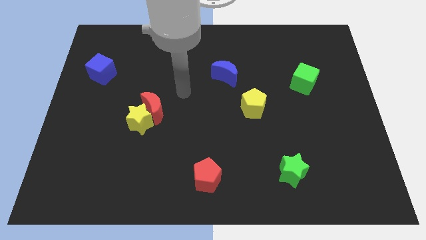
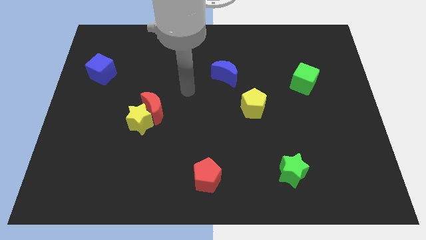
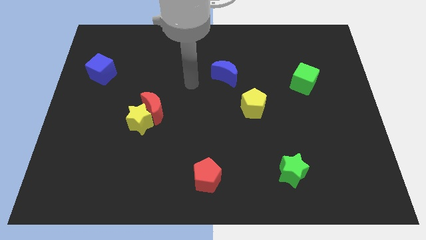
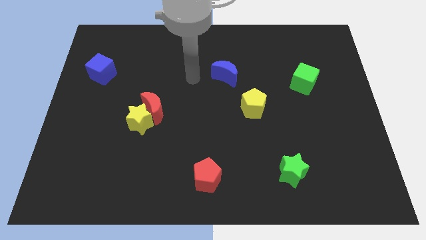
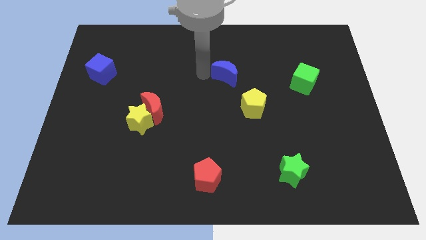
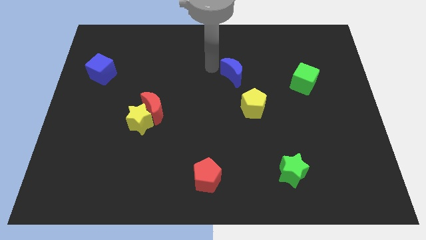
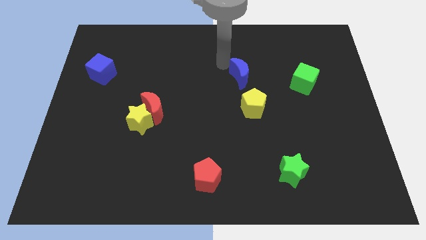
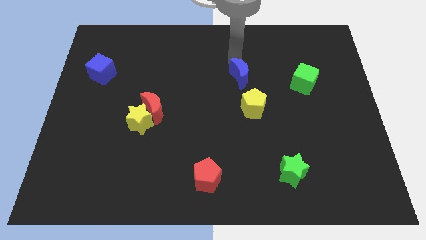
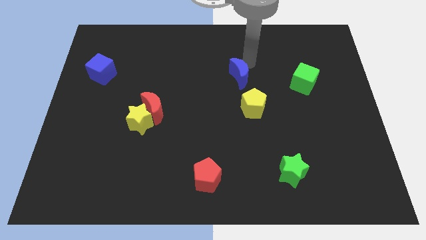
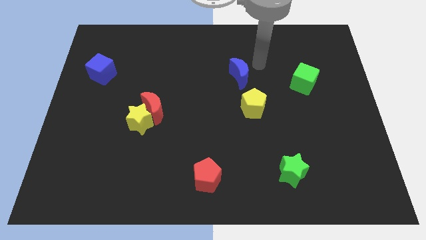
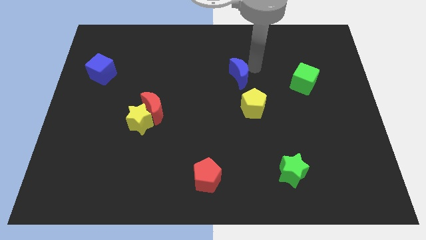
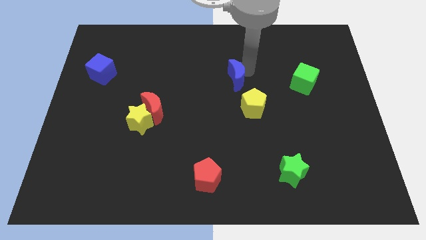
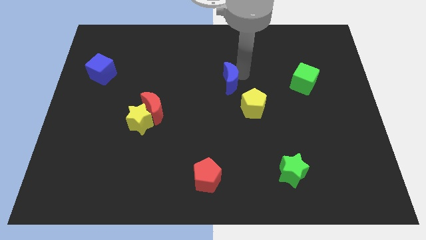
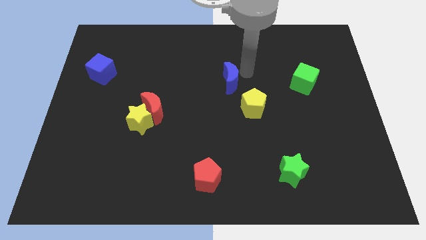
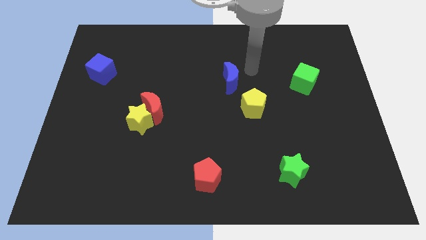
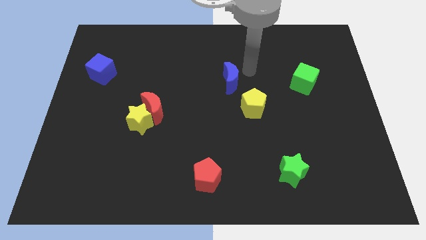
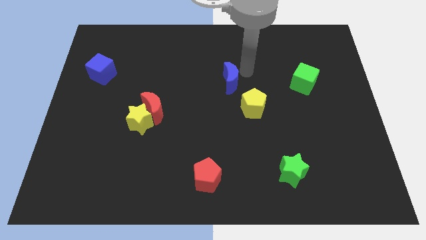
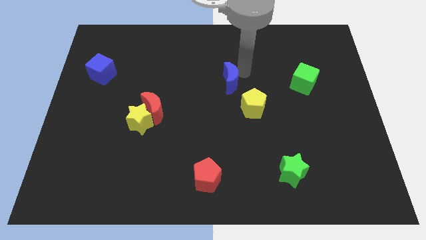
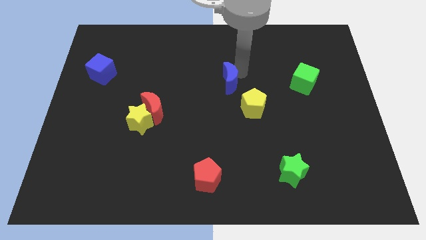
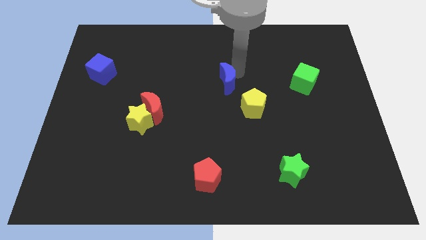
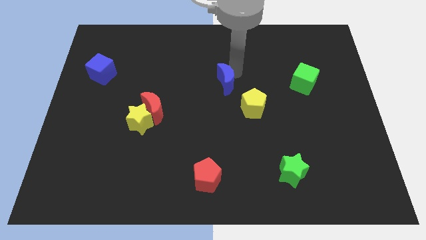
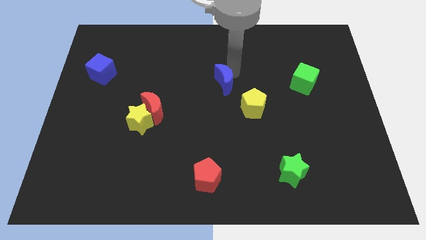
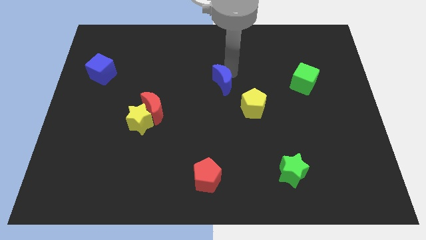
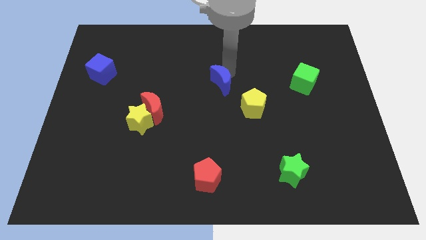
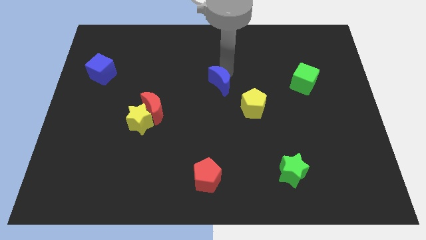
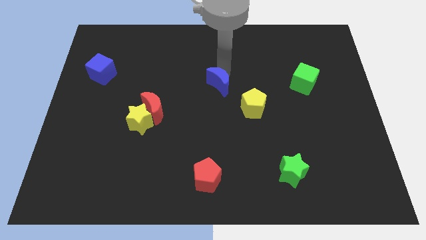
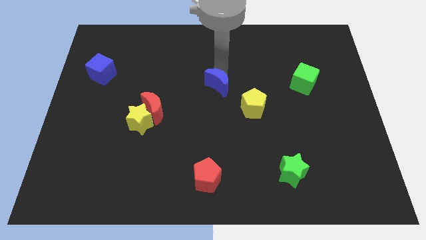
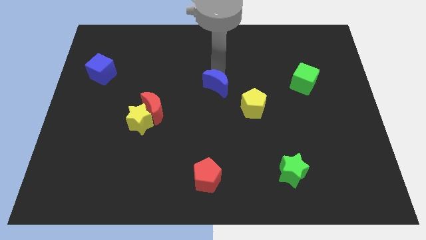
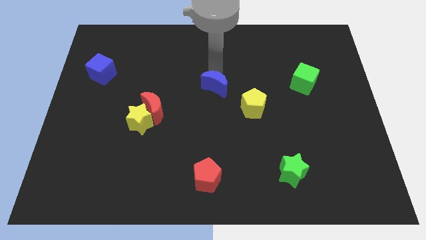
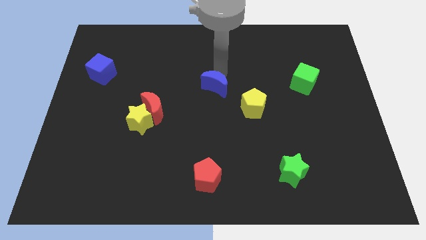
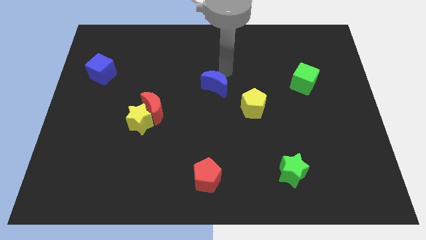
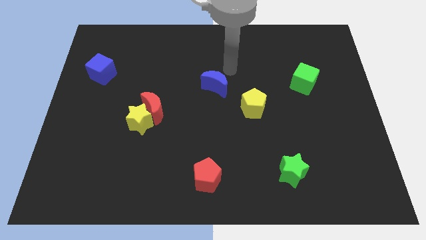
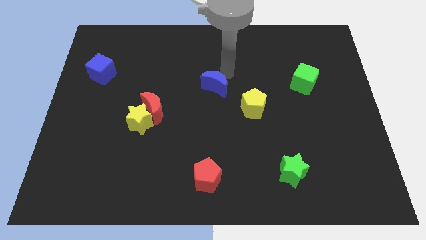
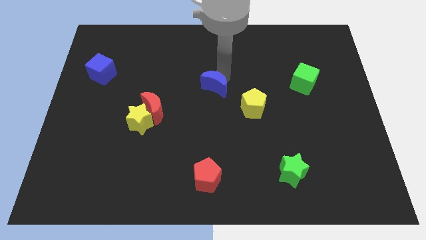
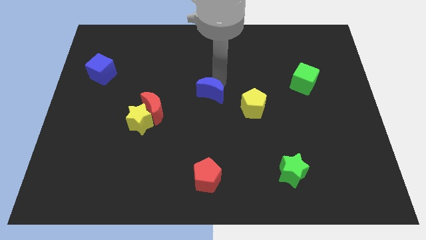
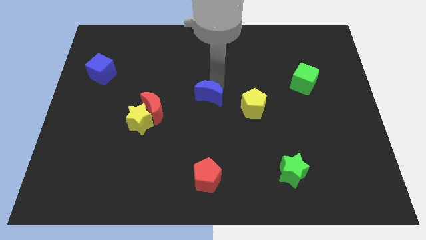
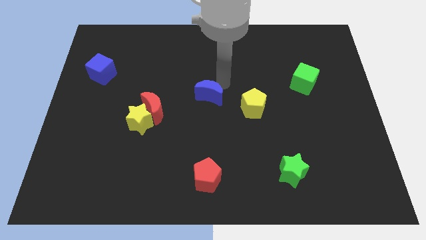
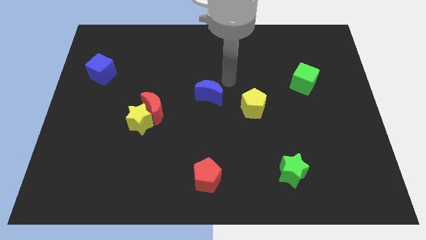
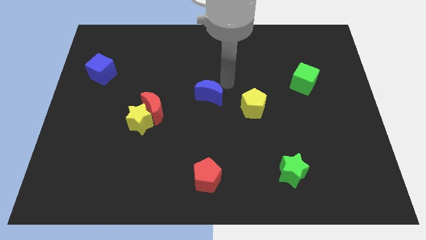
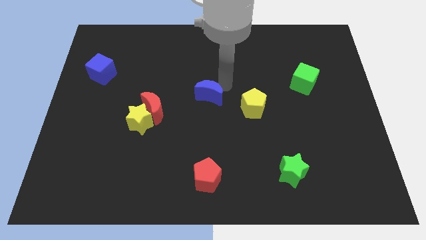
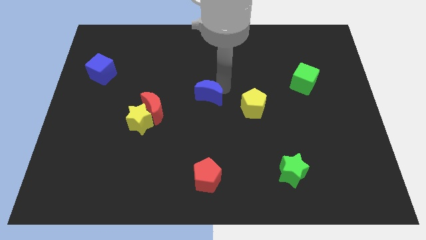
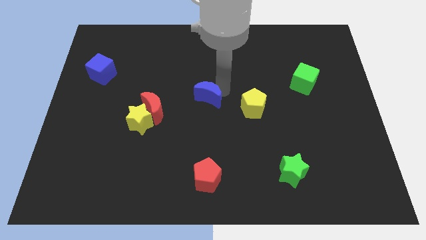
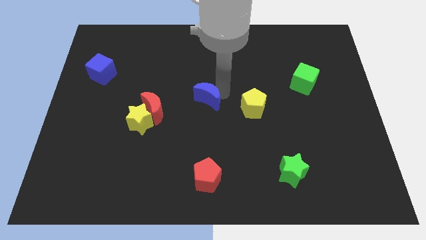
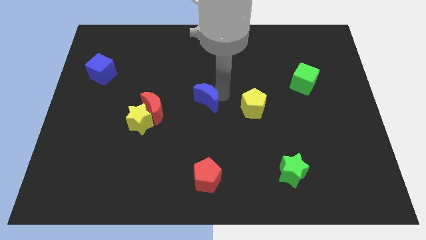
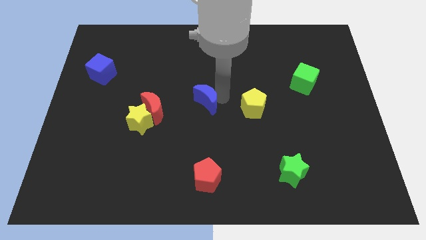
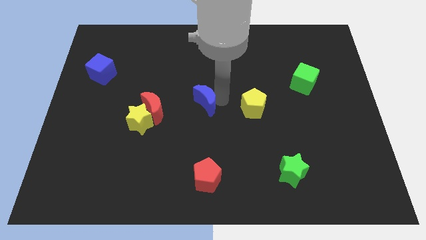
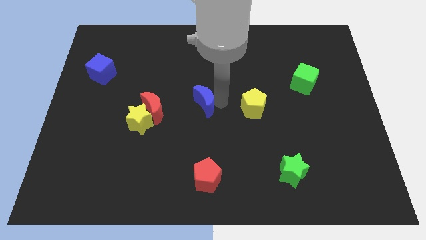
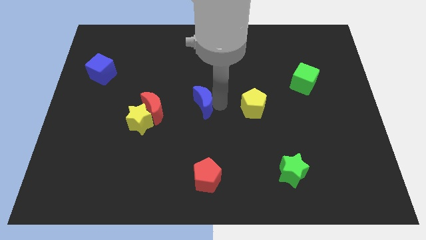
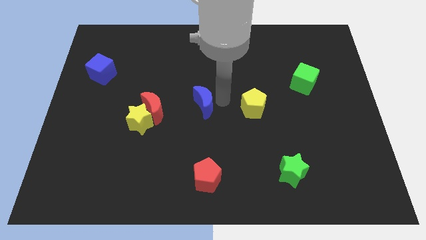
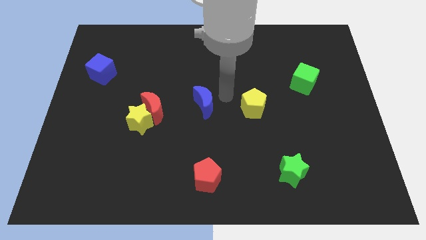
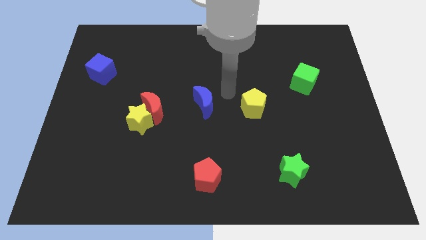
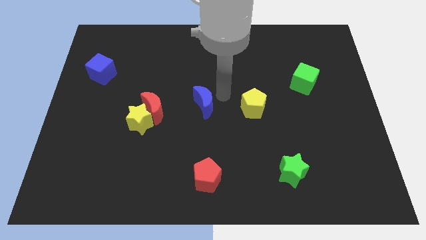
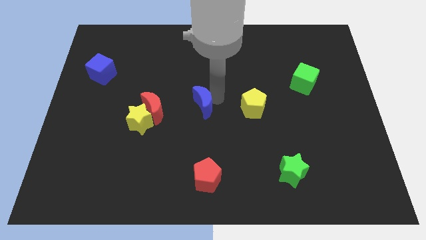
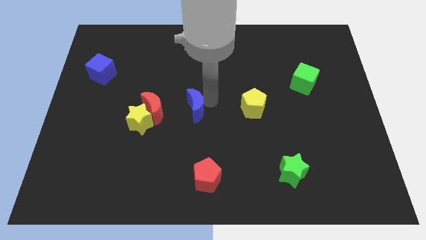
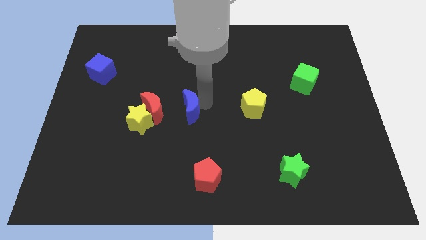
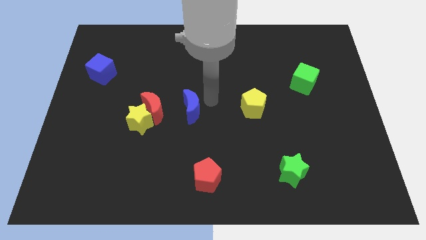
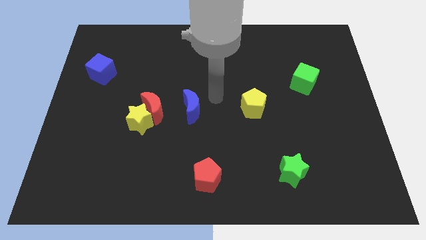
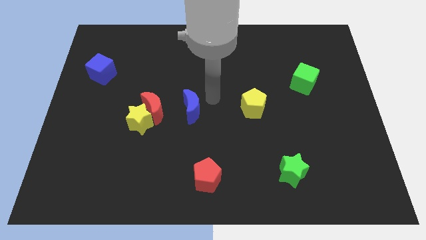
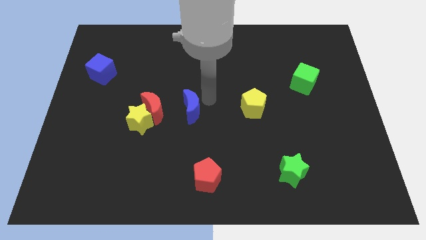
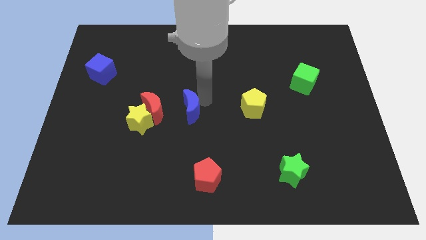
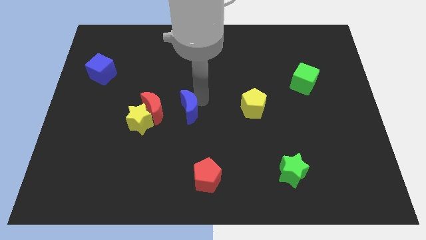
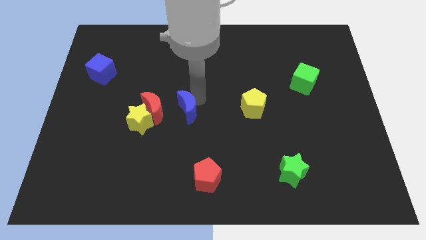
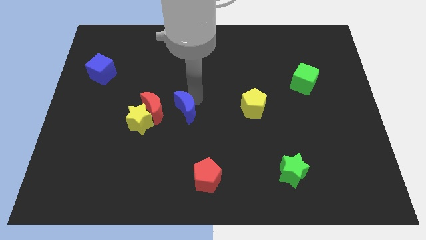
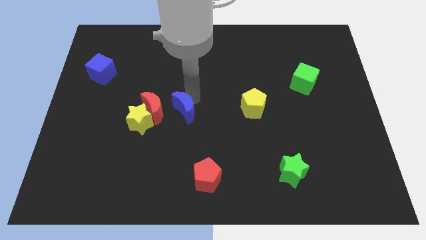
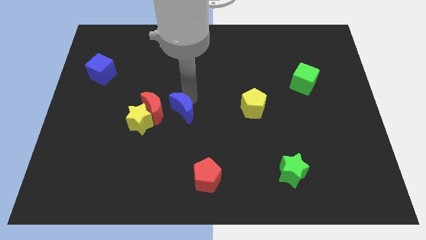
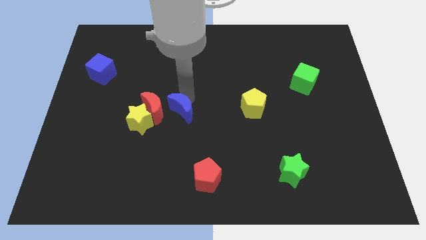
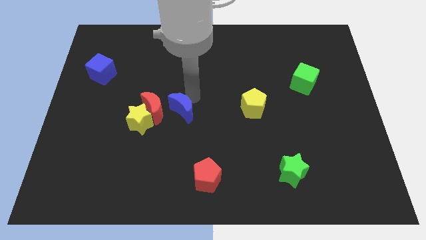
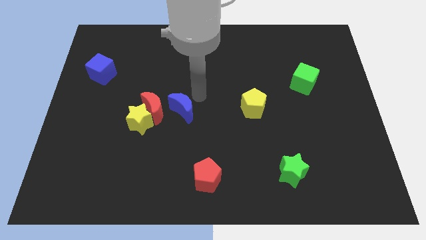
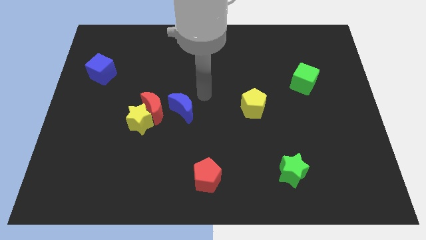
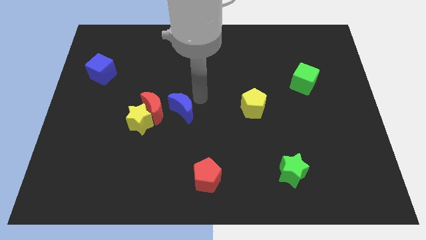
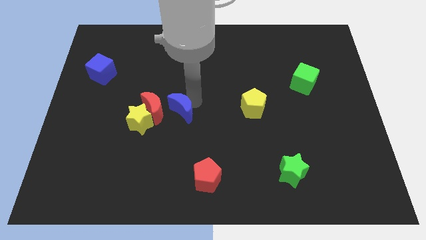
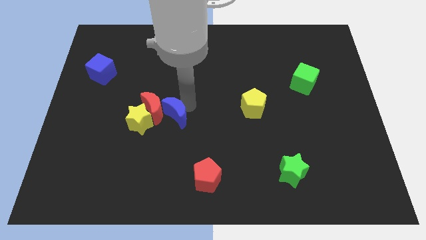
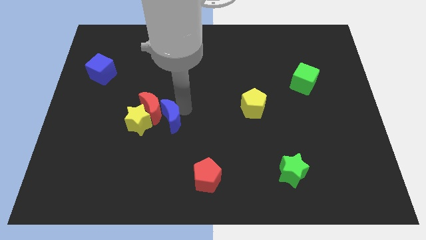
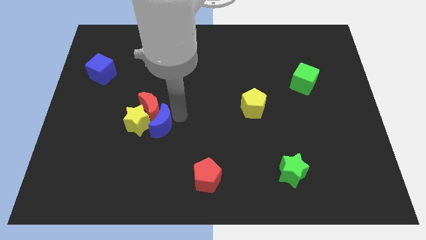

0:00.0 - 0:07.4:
slide the blue moon next to the yellow star

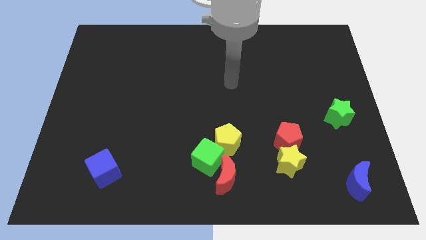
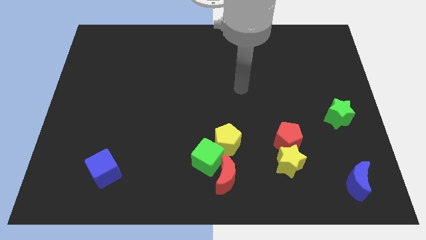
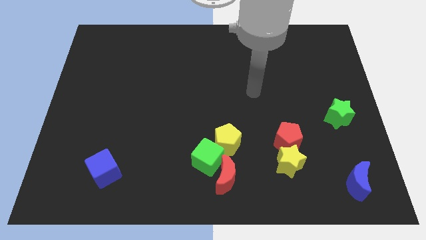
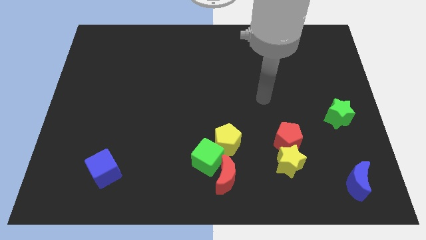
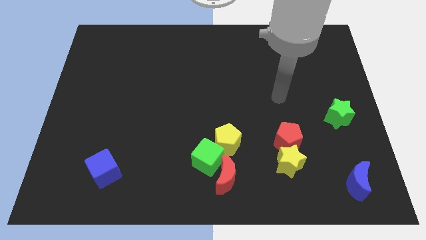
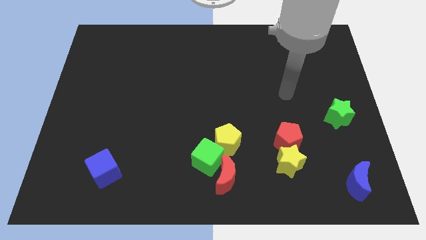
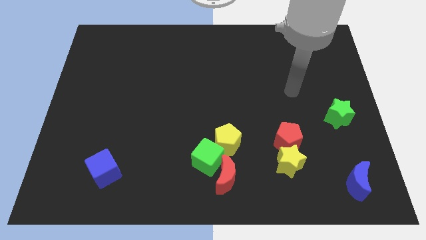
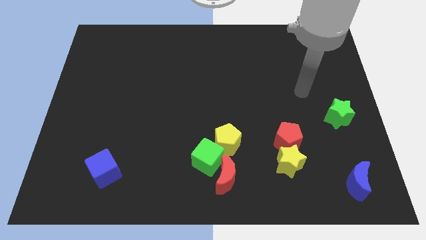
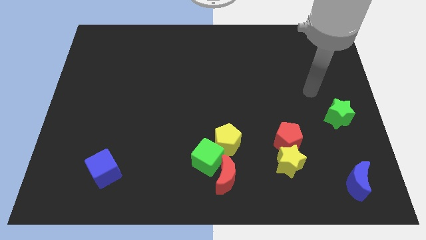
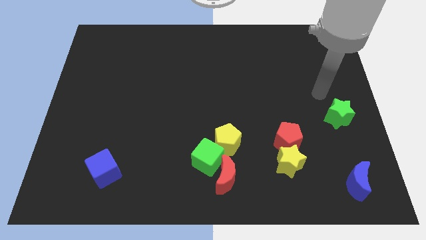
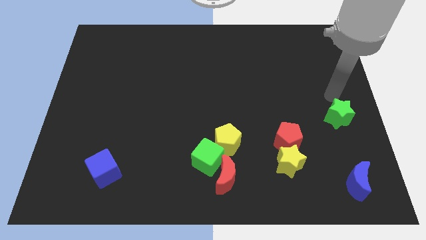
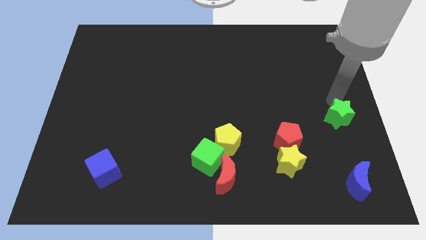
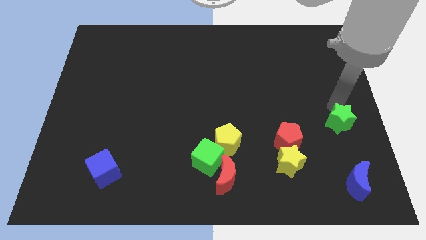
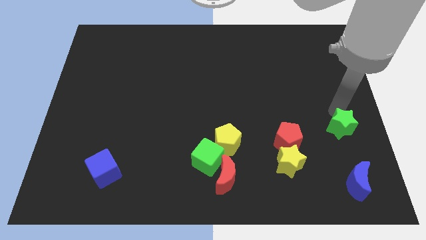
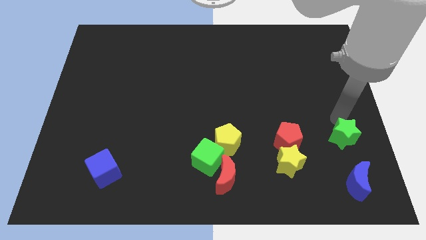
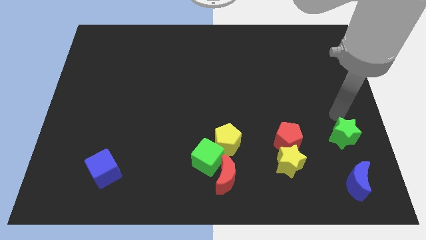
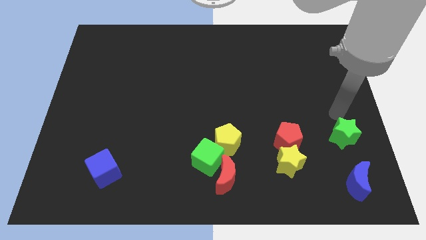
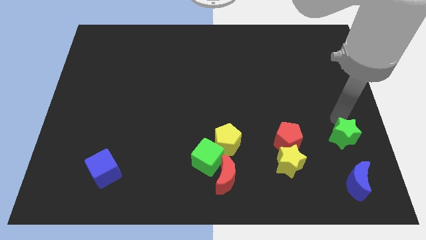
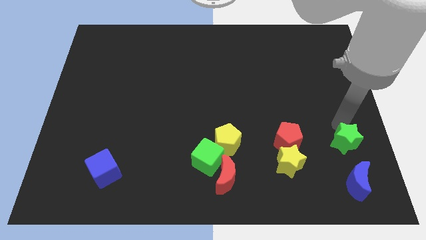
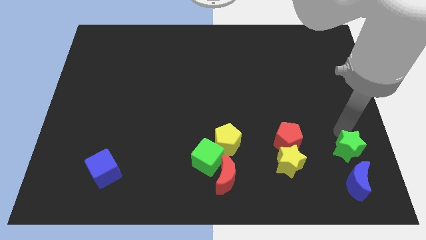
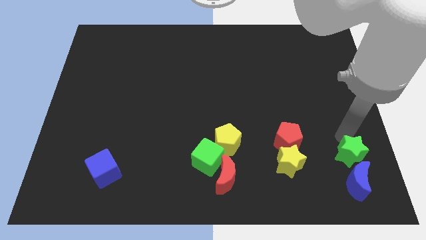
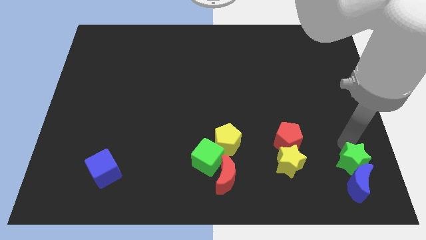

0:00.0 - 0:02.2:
push the green star to the blue moon
